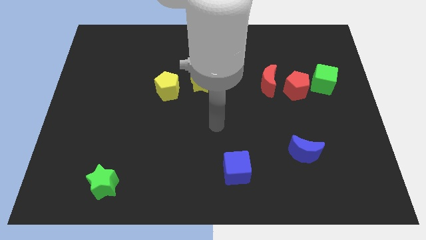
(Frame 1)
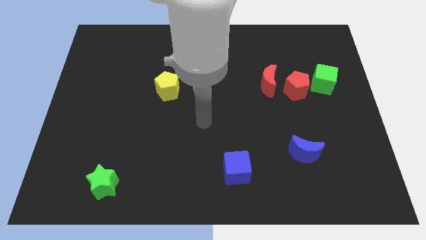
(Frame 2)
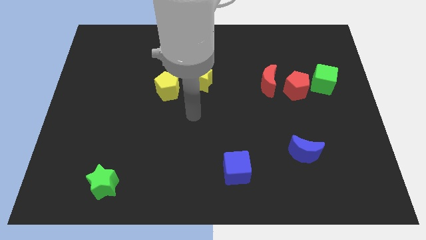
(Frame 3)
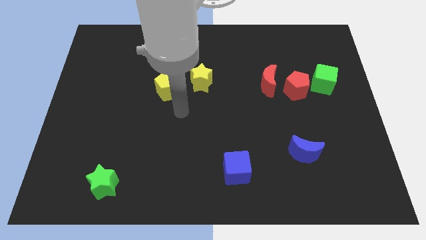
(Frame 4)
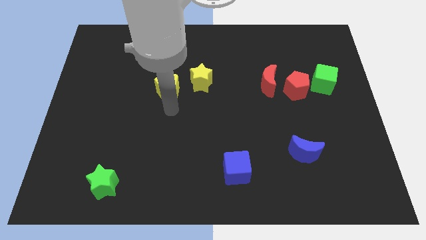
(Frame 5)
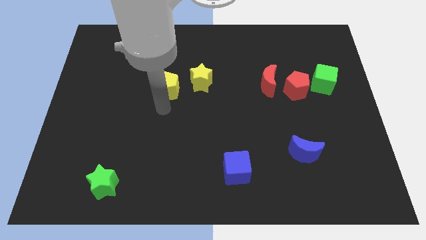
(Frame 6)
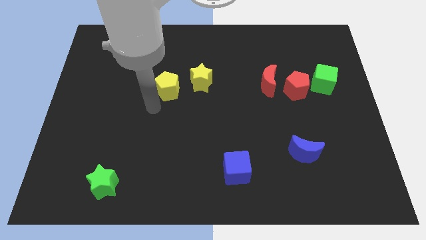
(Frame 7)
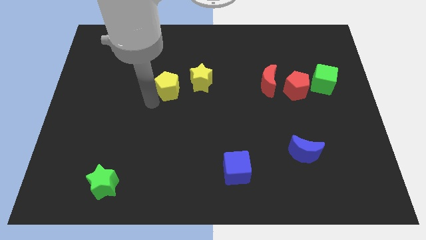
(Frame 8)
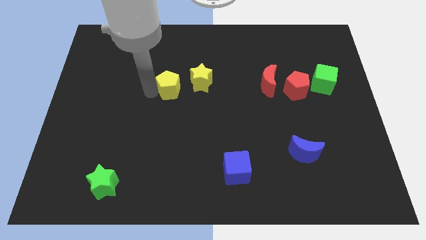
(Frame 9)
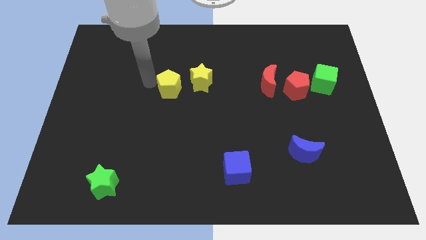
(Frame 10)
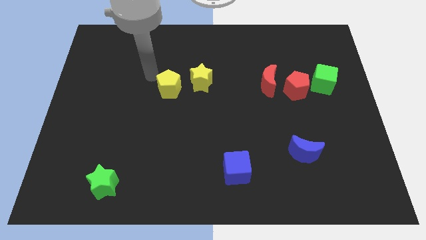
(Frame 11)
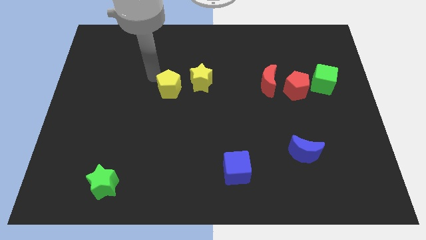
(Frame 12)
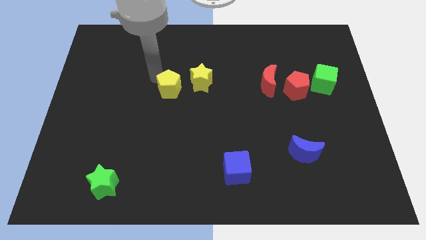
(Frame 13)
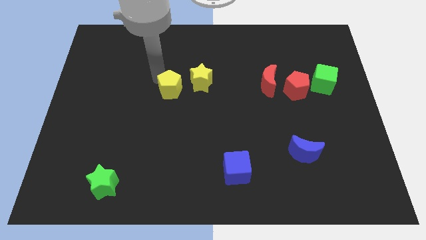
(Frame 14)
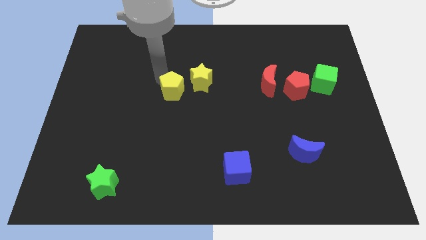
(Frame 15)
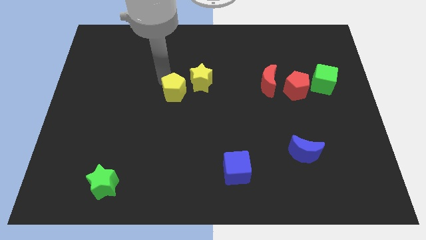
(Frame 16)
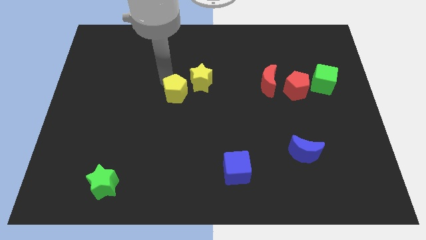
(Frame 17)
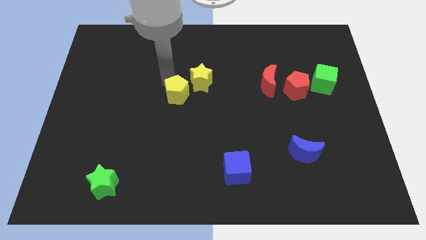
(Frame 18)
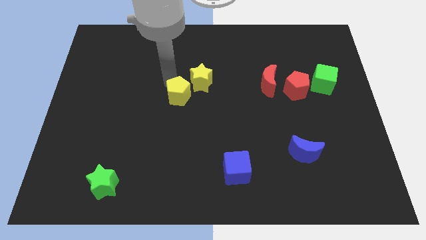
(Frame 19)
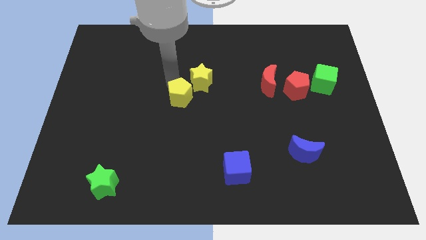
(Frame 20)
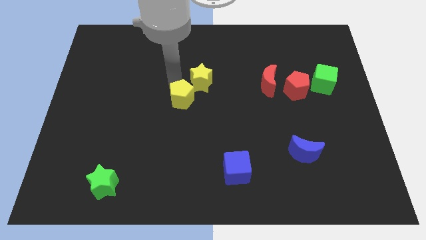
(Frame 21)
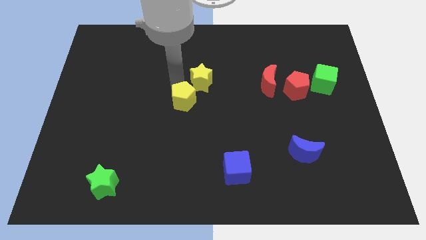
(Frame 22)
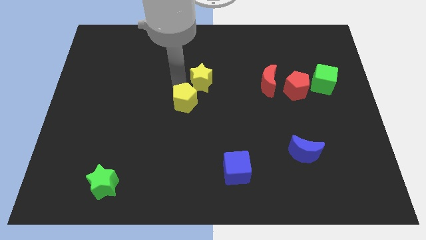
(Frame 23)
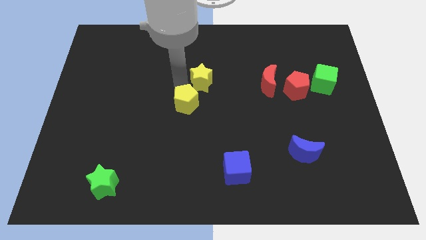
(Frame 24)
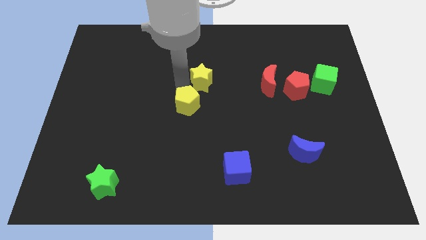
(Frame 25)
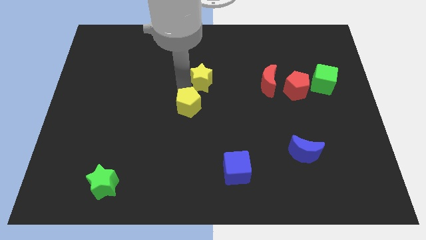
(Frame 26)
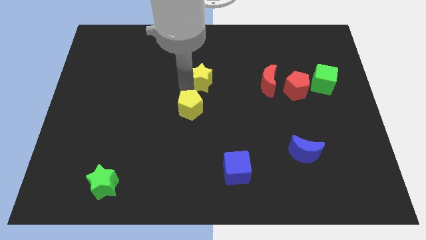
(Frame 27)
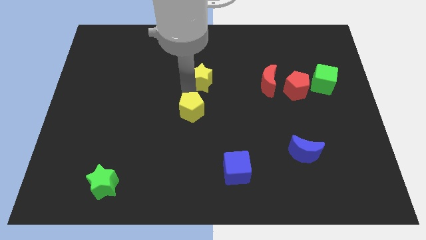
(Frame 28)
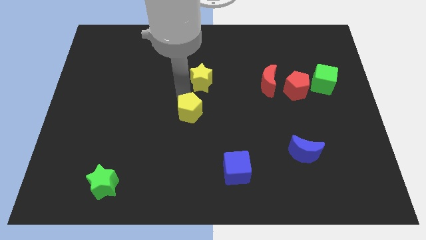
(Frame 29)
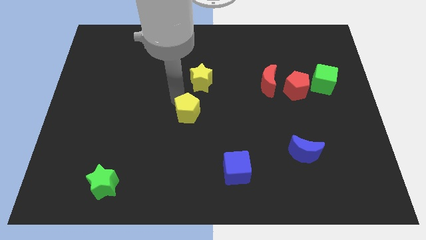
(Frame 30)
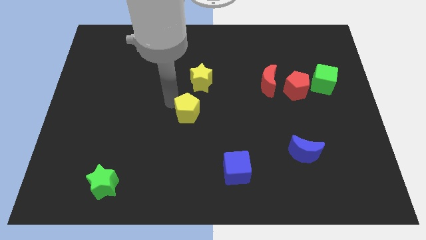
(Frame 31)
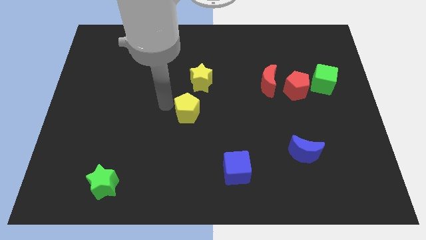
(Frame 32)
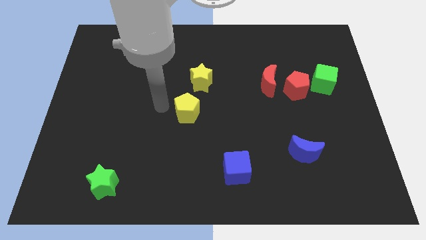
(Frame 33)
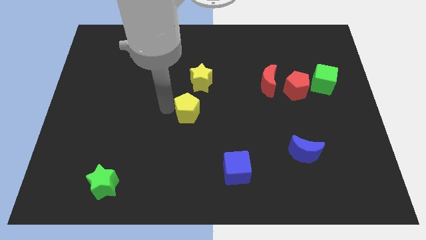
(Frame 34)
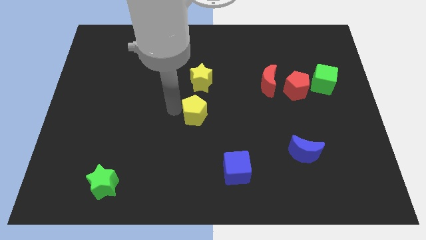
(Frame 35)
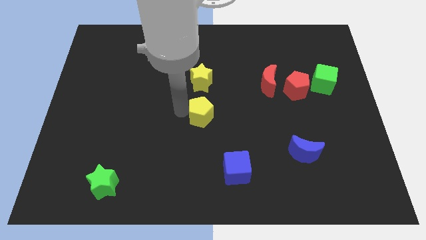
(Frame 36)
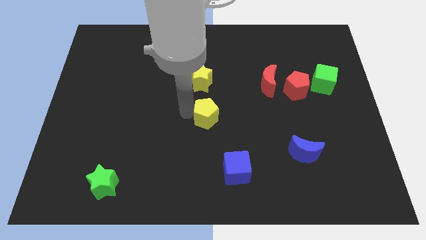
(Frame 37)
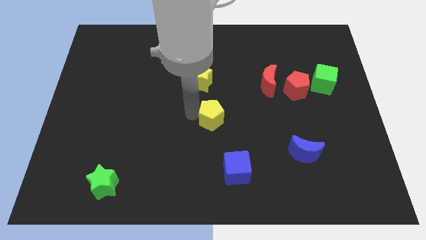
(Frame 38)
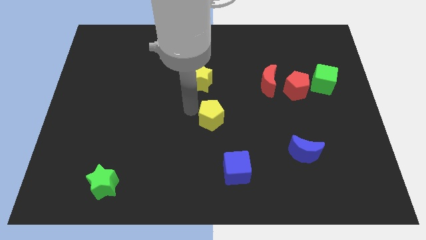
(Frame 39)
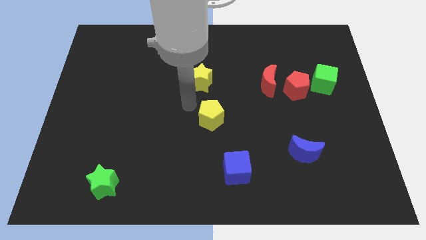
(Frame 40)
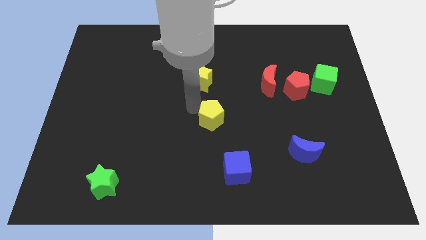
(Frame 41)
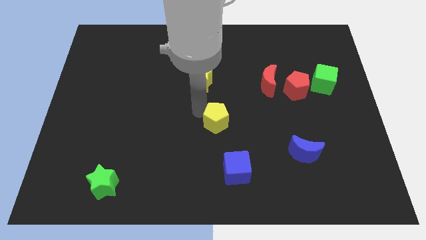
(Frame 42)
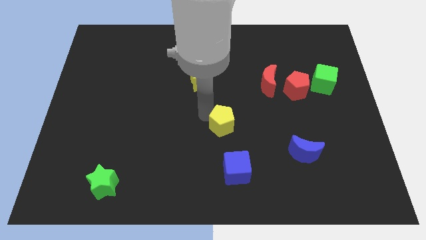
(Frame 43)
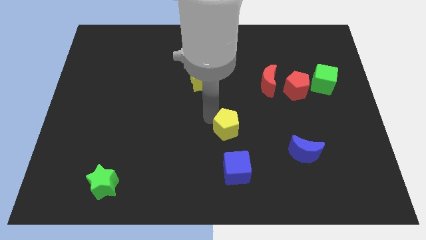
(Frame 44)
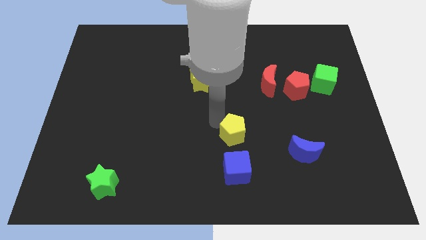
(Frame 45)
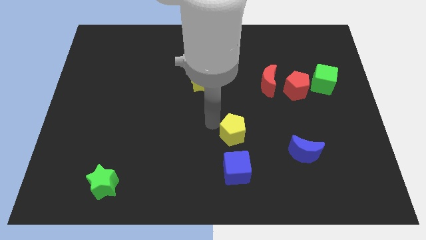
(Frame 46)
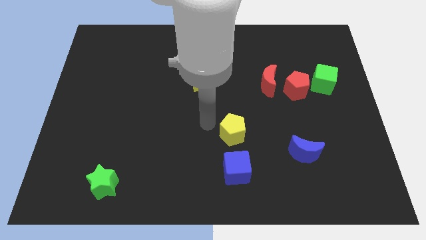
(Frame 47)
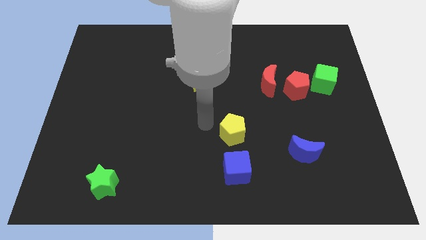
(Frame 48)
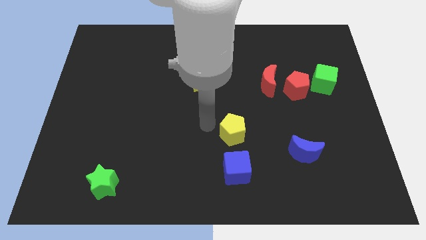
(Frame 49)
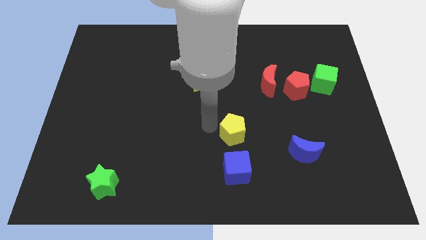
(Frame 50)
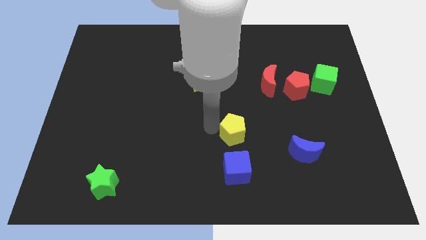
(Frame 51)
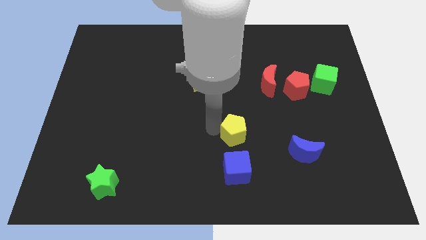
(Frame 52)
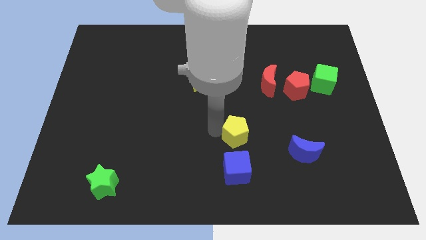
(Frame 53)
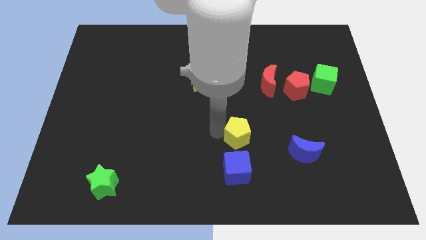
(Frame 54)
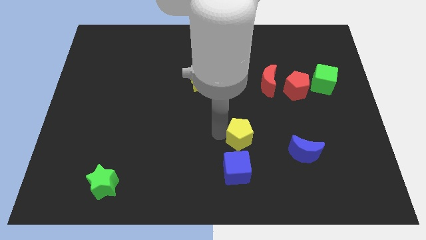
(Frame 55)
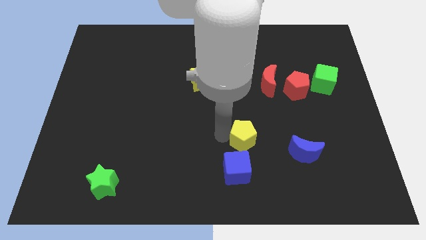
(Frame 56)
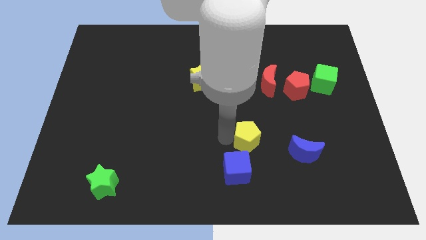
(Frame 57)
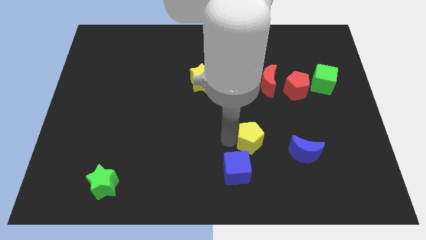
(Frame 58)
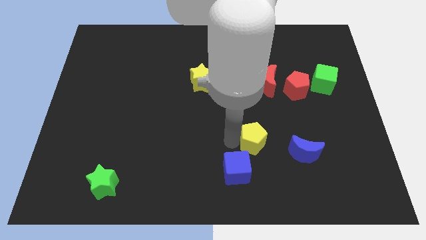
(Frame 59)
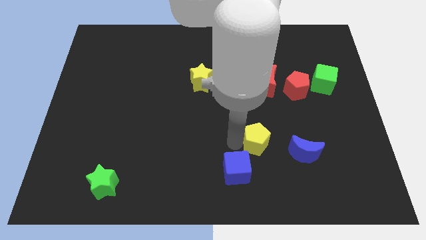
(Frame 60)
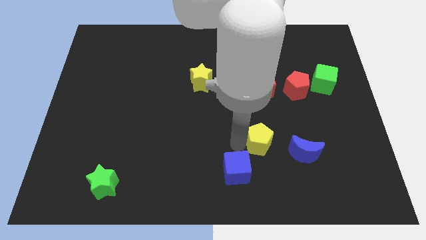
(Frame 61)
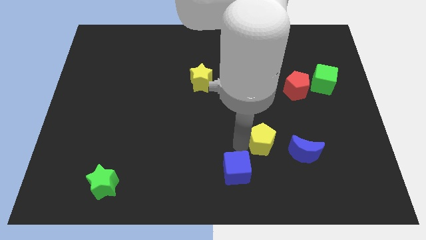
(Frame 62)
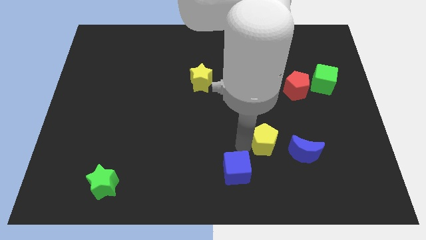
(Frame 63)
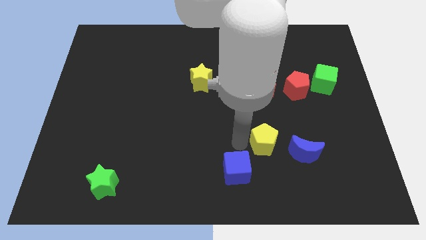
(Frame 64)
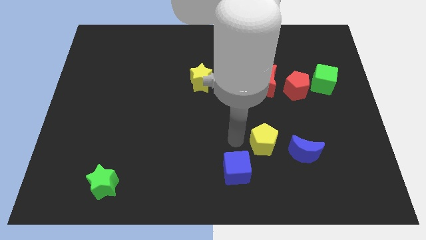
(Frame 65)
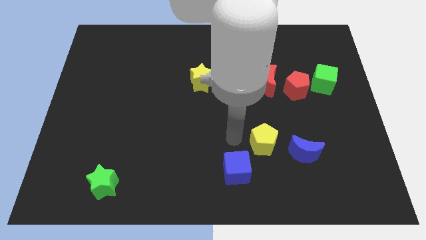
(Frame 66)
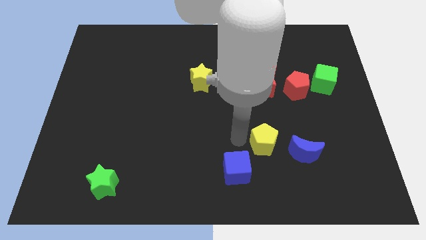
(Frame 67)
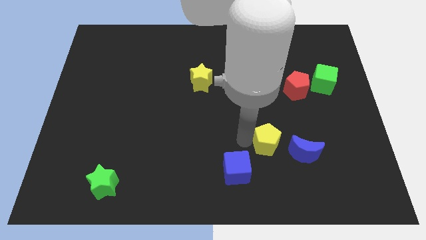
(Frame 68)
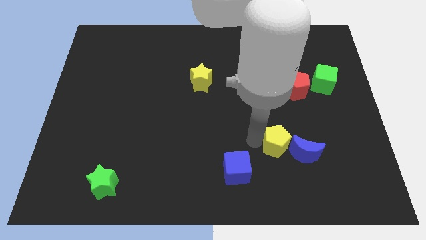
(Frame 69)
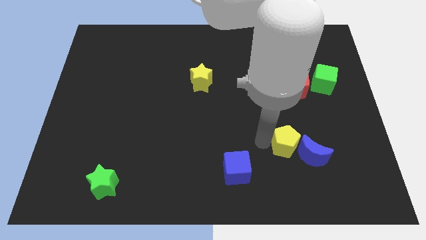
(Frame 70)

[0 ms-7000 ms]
put the yellow pentagon next to the blue moon
